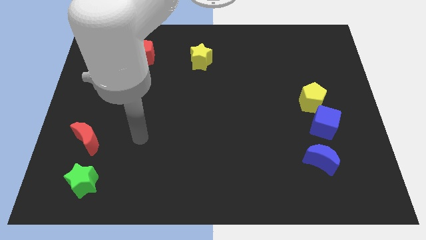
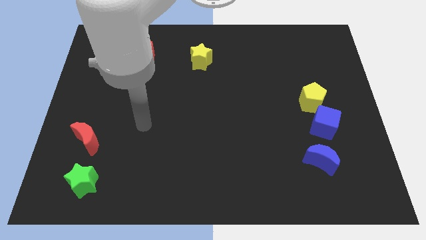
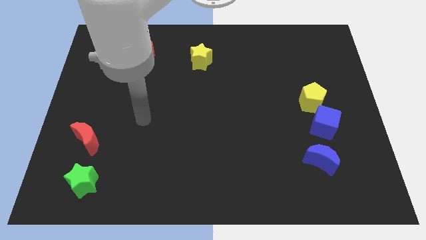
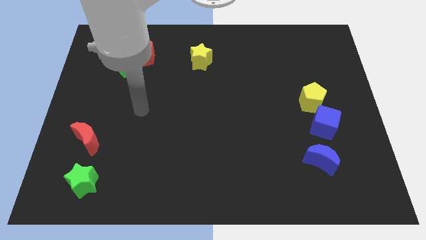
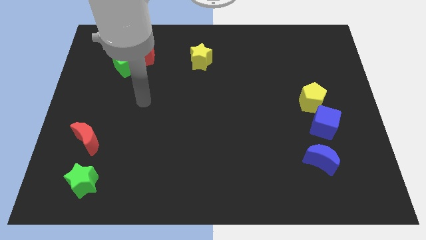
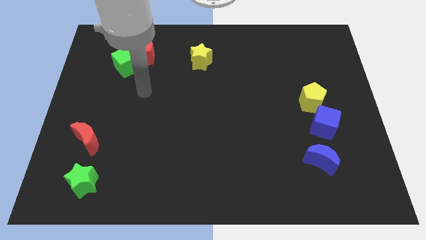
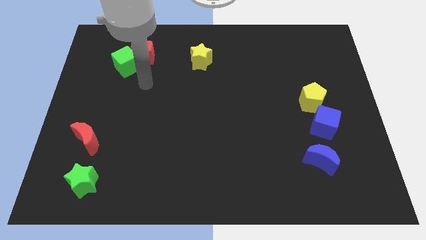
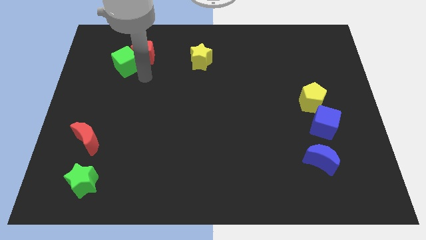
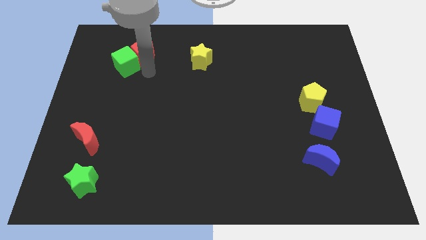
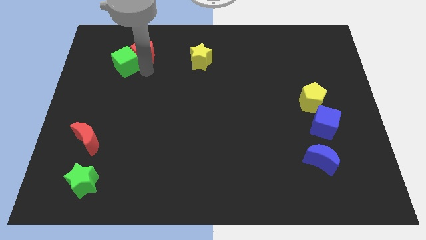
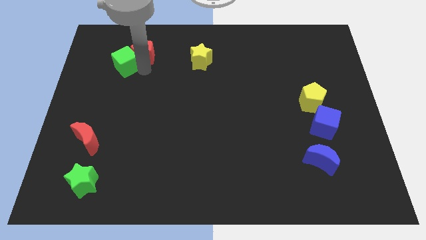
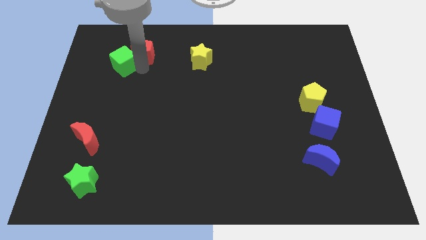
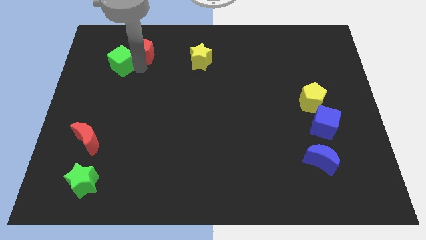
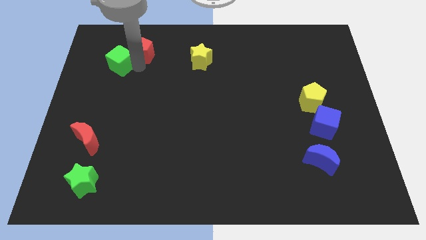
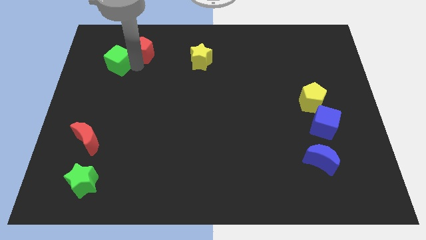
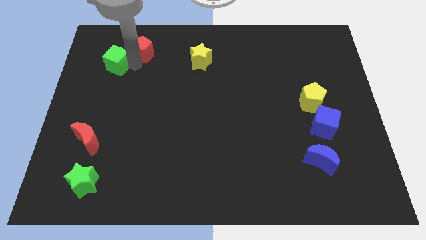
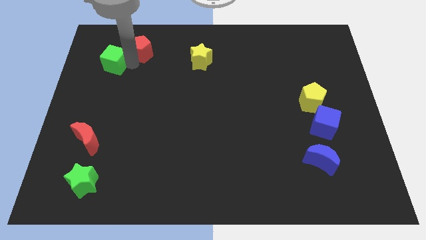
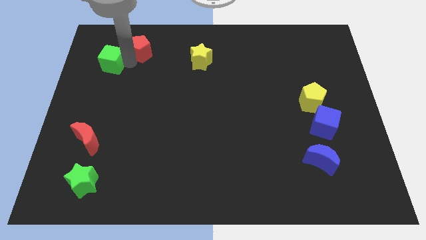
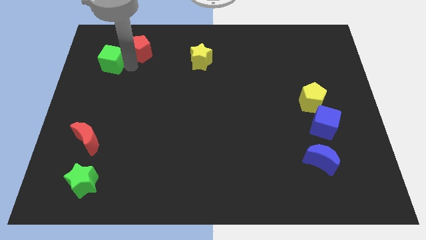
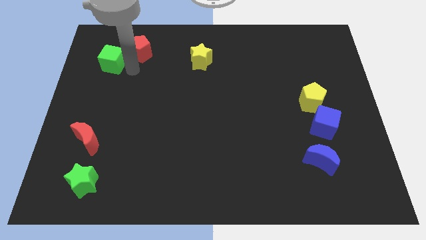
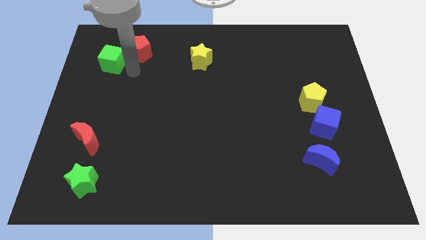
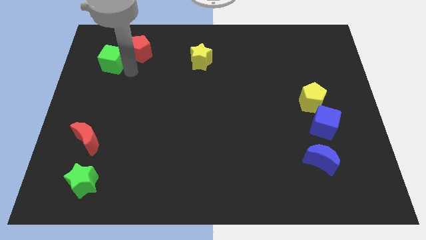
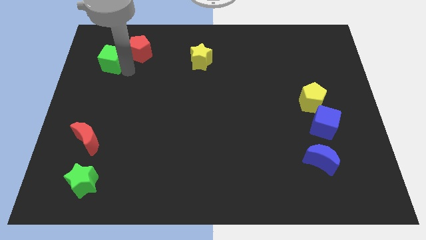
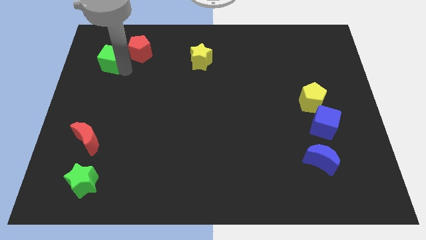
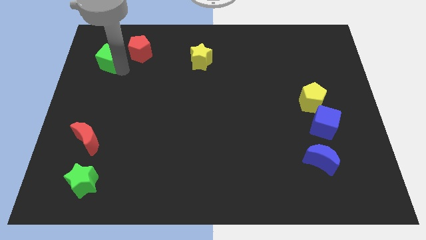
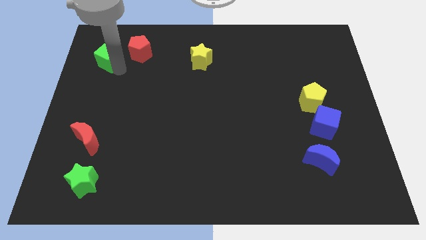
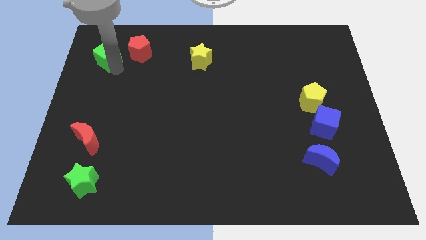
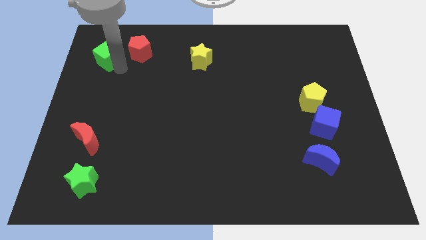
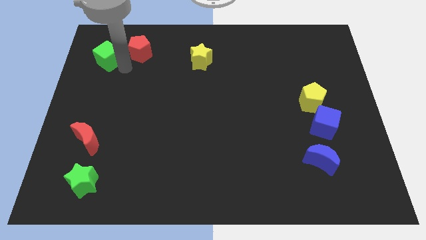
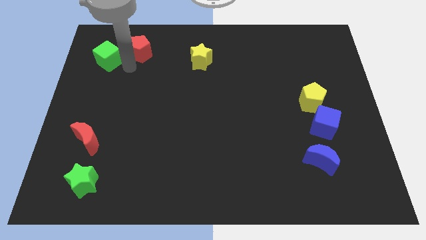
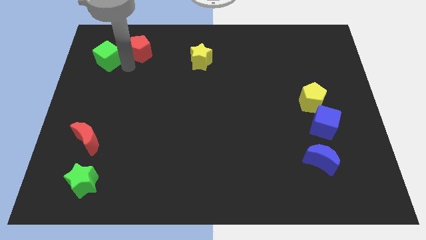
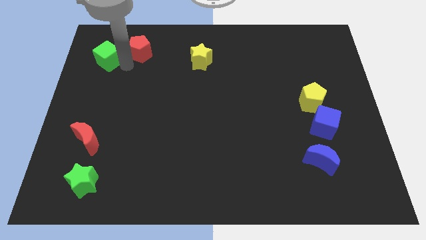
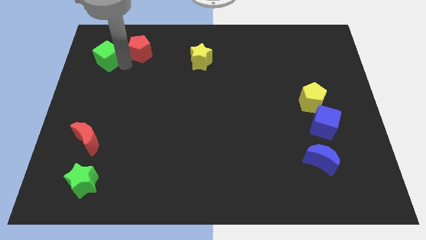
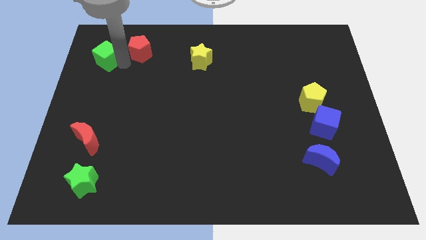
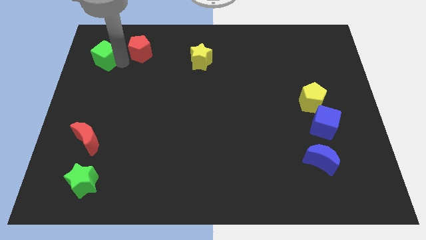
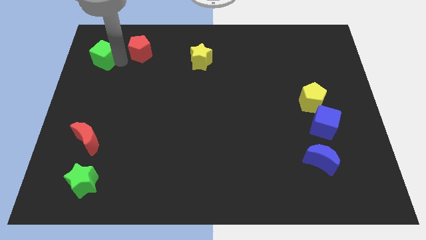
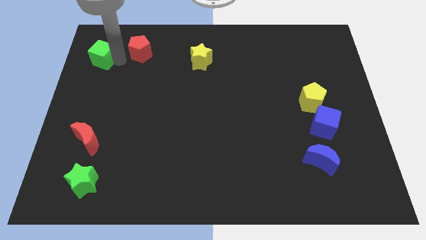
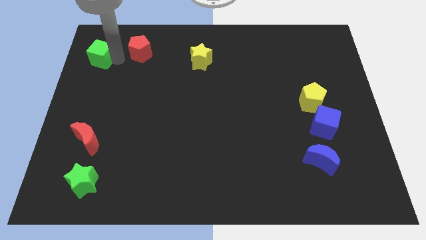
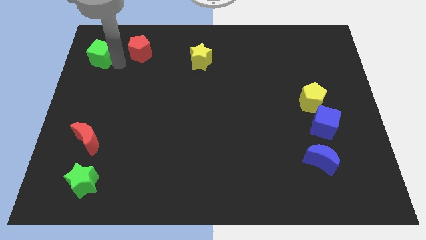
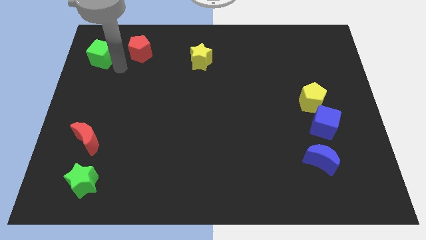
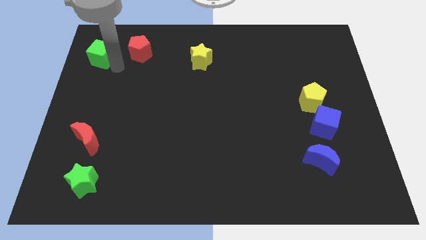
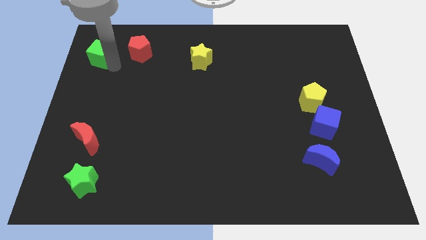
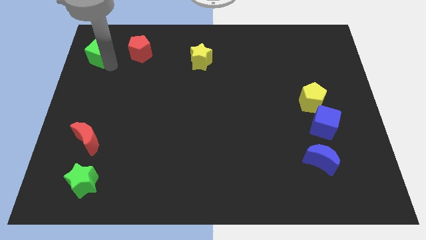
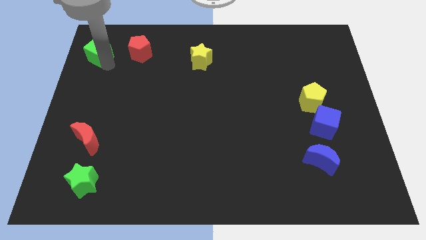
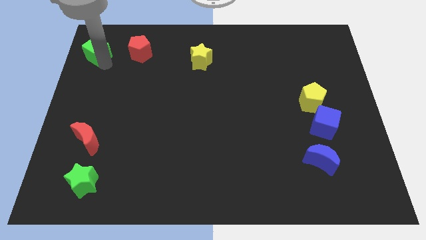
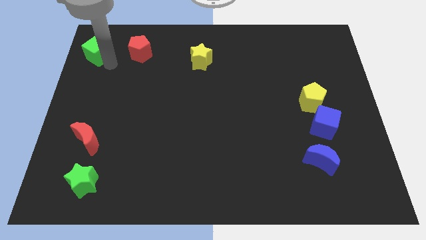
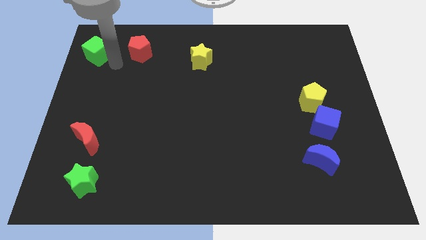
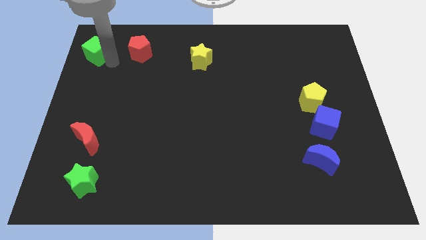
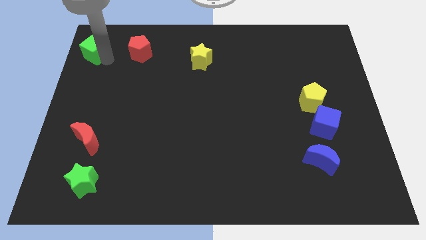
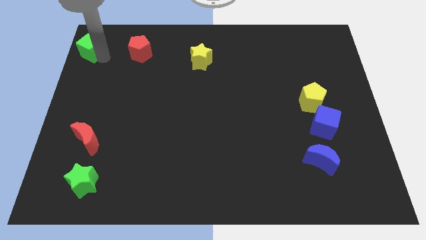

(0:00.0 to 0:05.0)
put the green cube to the top left

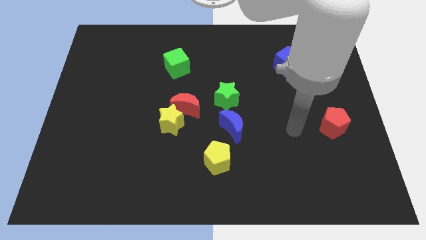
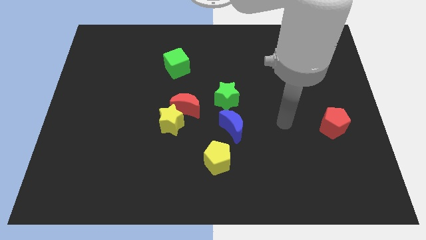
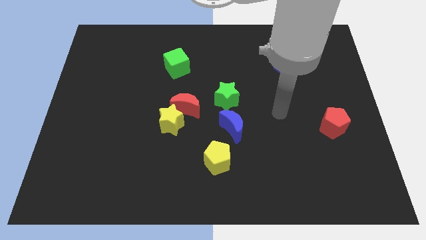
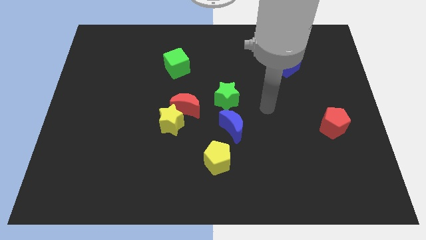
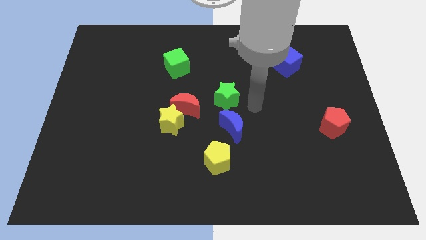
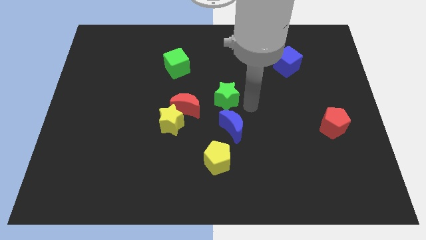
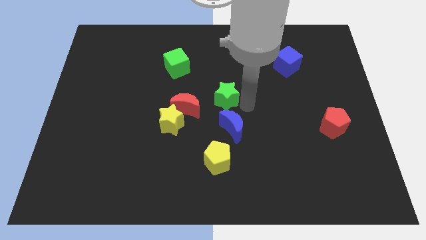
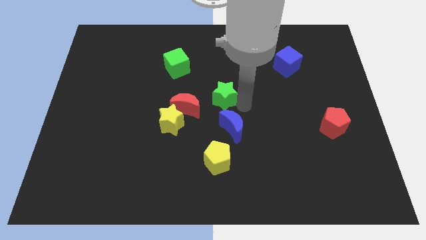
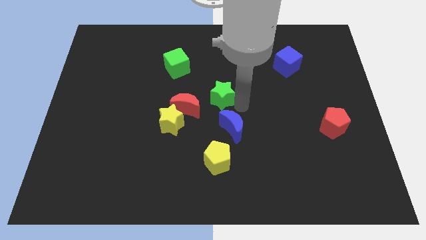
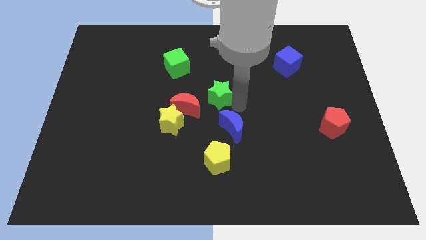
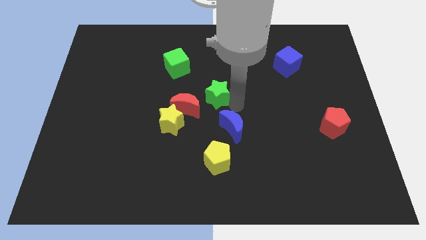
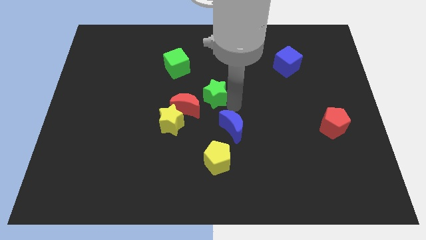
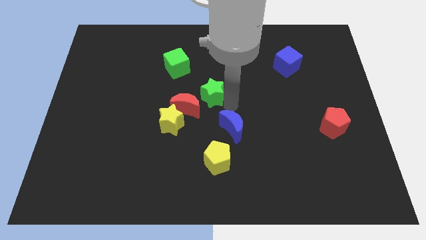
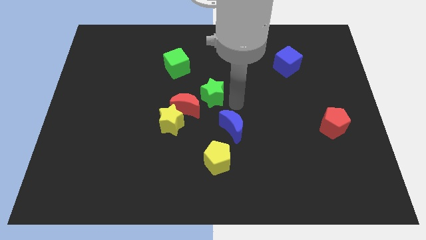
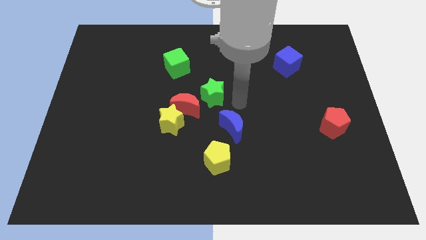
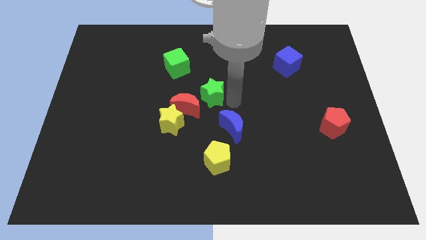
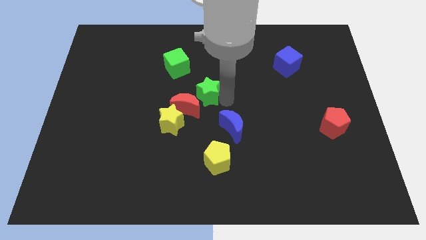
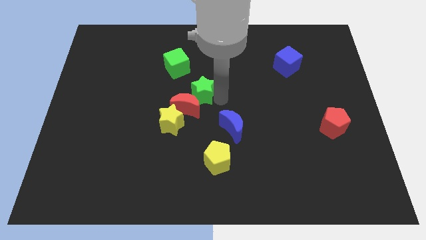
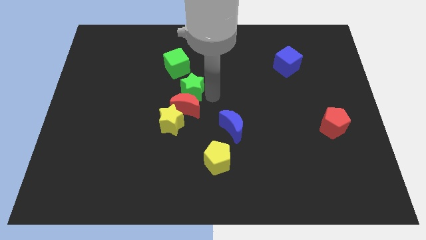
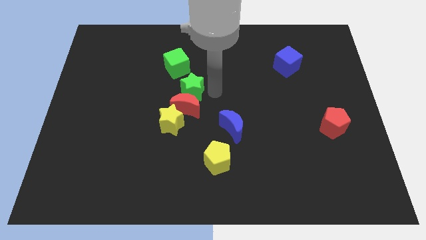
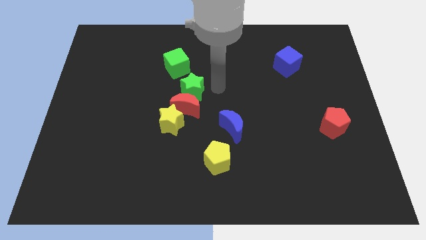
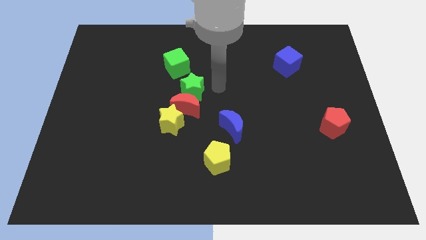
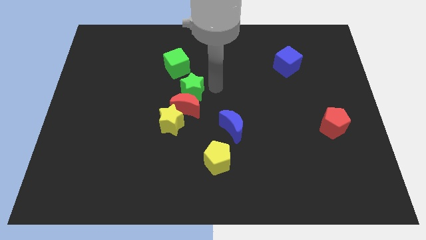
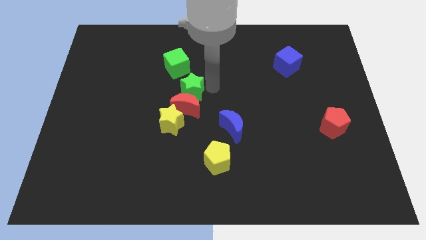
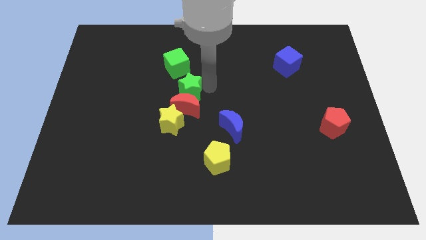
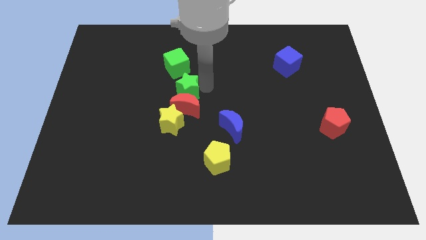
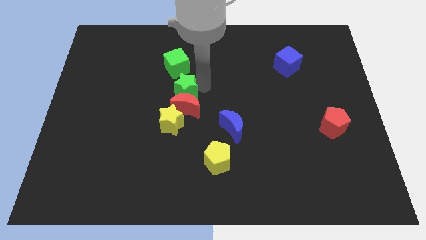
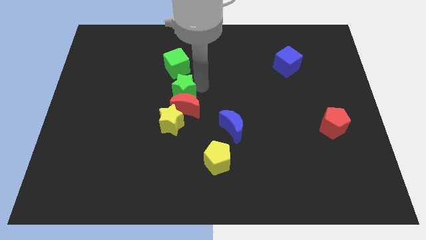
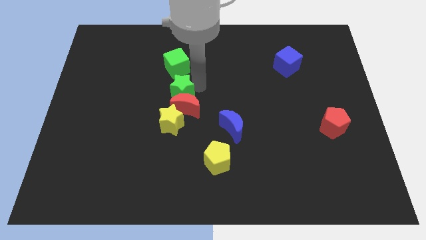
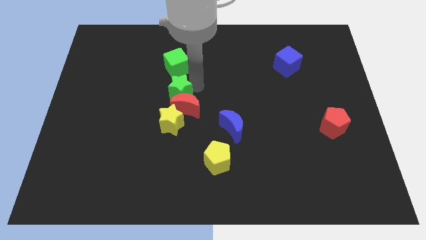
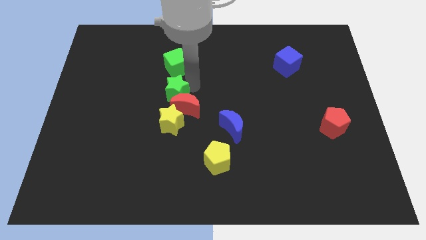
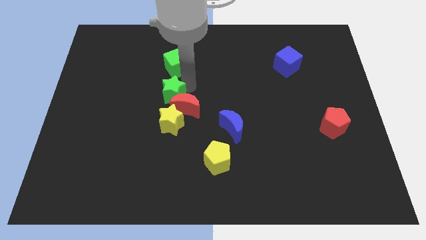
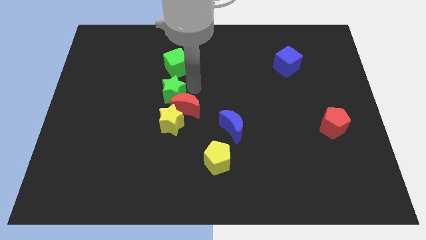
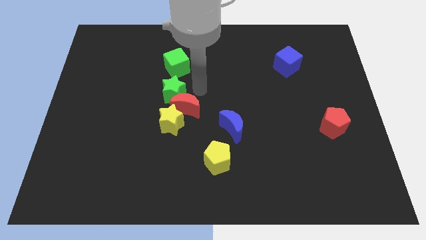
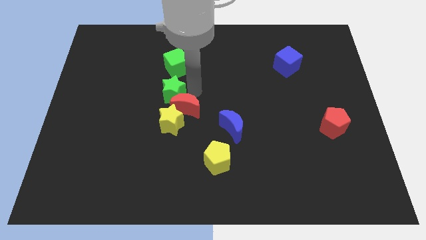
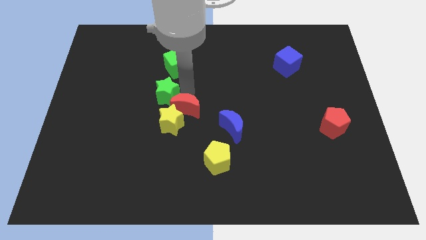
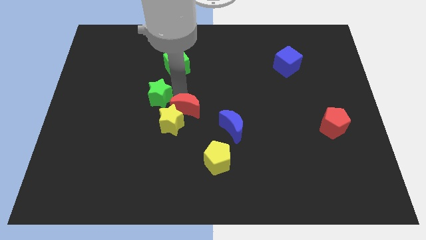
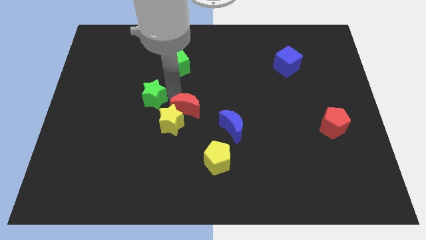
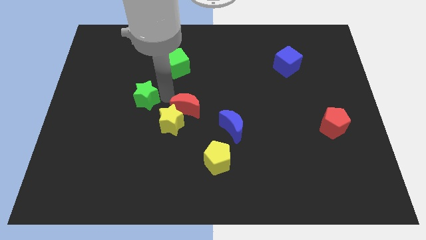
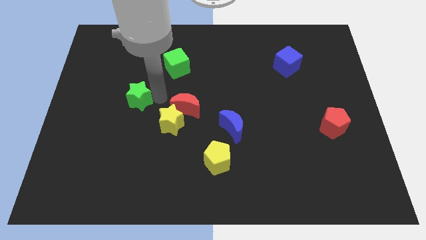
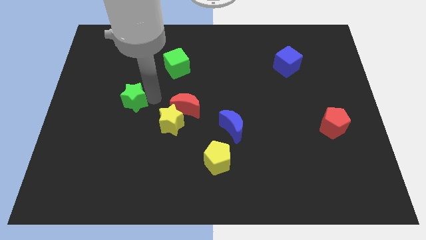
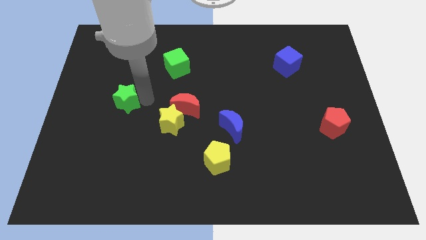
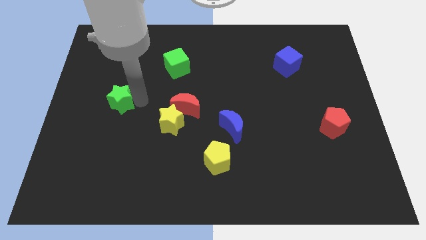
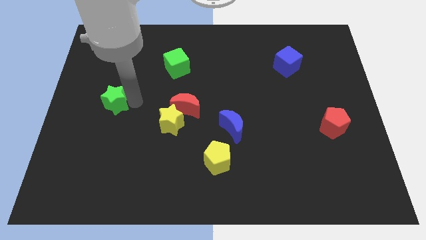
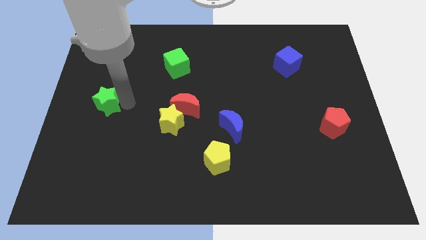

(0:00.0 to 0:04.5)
slide the green star to the center left
